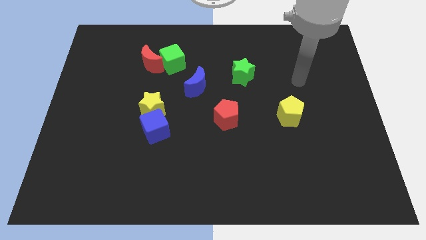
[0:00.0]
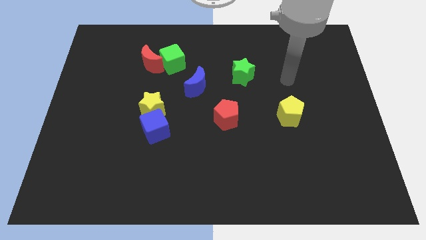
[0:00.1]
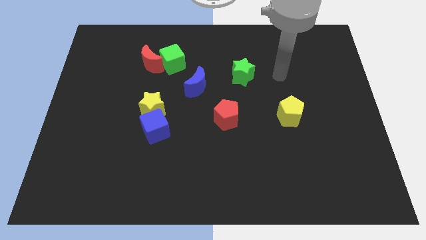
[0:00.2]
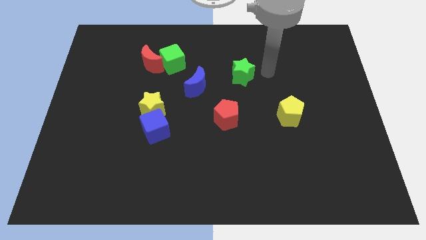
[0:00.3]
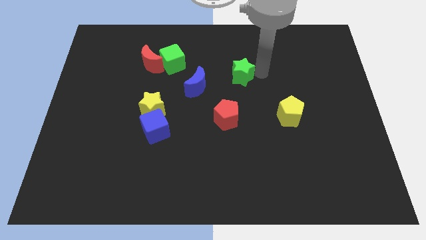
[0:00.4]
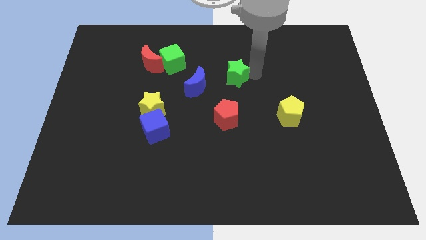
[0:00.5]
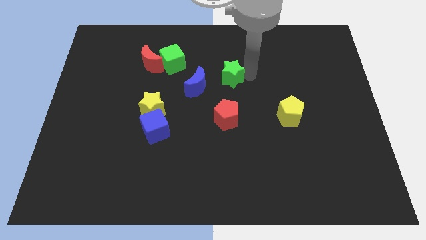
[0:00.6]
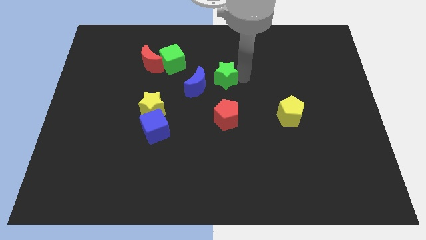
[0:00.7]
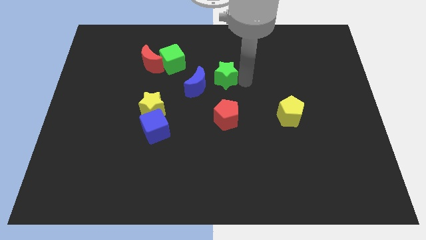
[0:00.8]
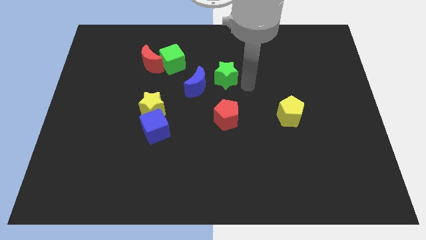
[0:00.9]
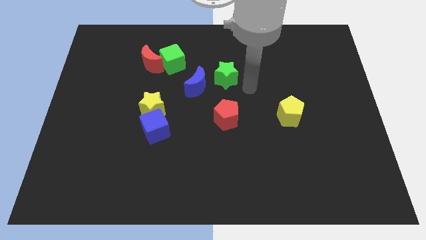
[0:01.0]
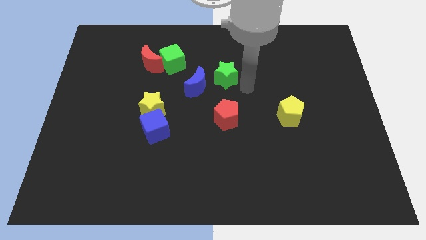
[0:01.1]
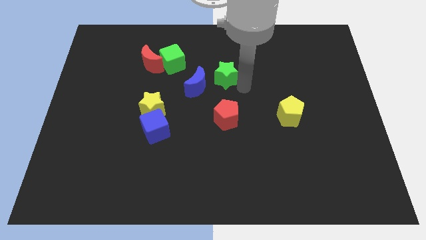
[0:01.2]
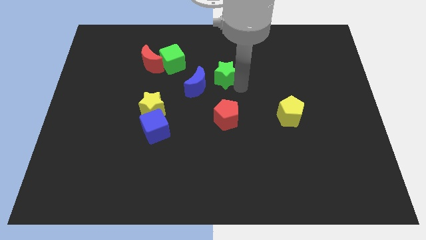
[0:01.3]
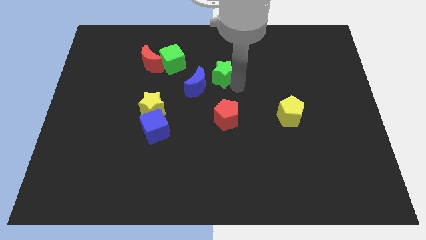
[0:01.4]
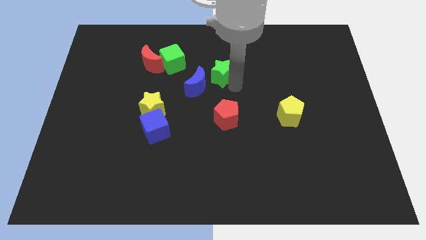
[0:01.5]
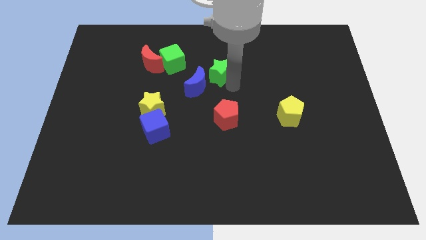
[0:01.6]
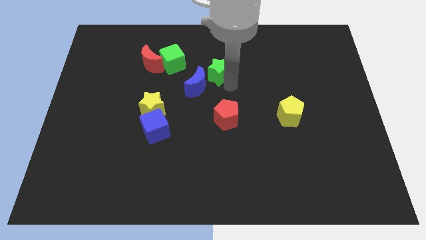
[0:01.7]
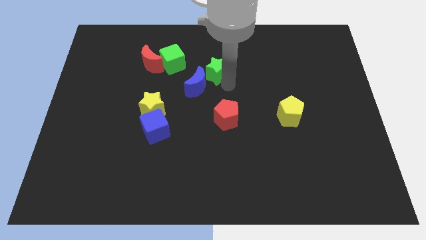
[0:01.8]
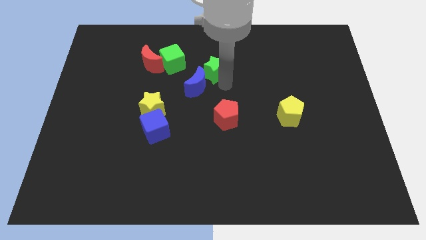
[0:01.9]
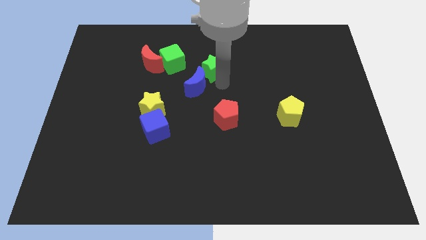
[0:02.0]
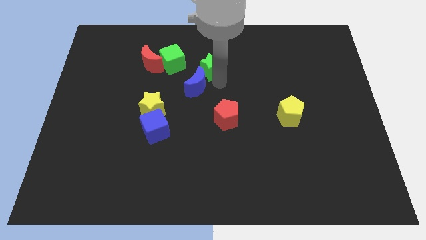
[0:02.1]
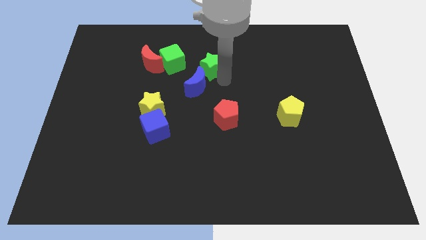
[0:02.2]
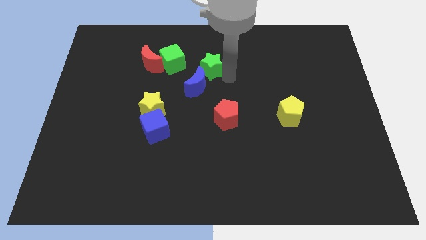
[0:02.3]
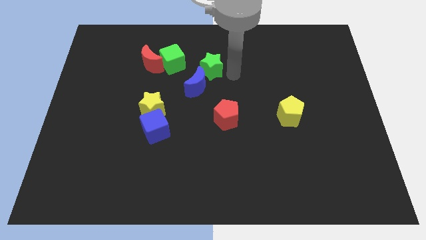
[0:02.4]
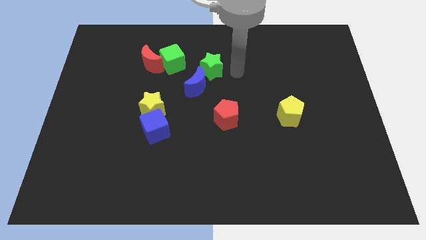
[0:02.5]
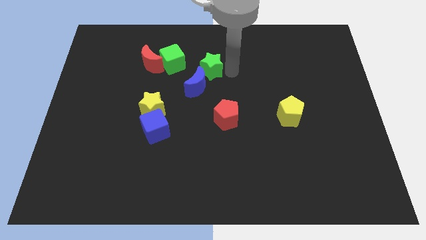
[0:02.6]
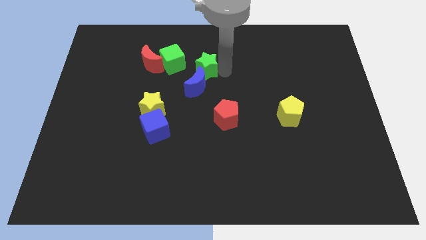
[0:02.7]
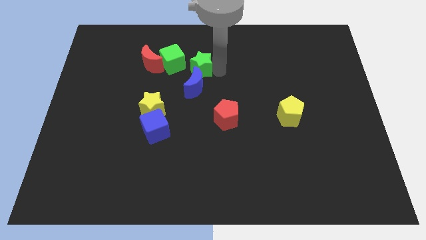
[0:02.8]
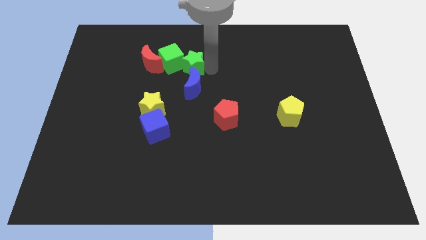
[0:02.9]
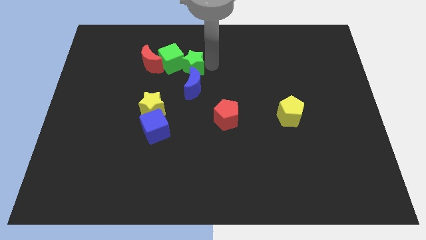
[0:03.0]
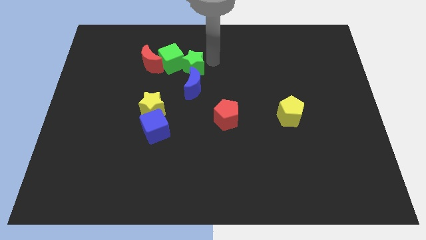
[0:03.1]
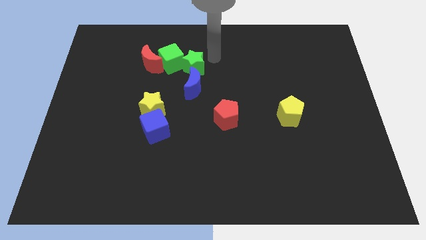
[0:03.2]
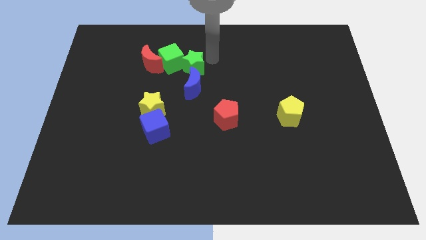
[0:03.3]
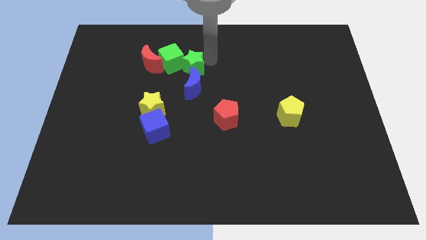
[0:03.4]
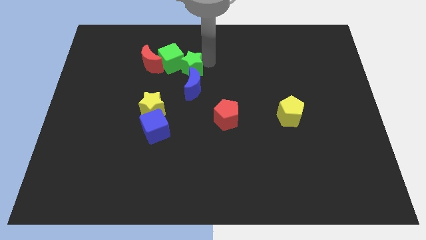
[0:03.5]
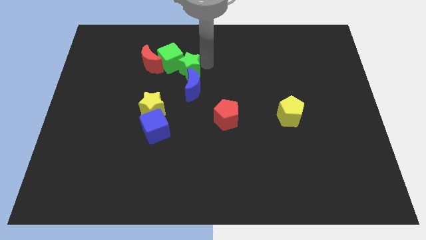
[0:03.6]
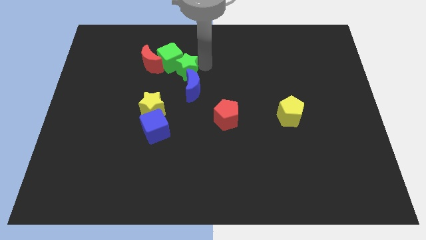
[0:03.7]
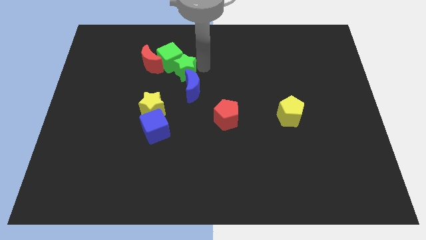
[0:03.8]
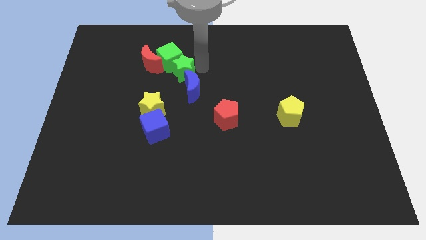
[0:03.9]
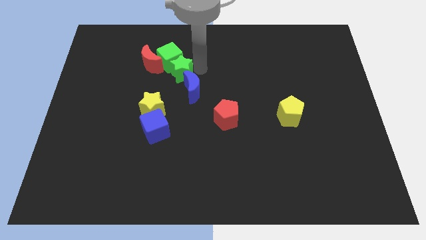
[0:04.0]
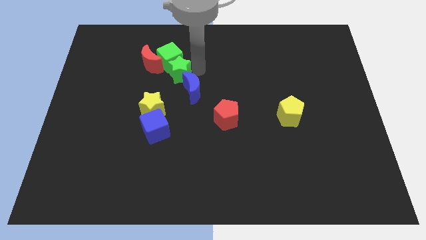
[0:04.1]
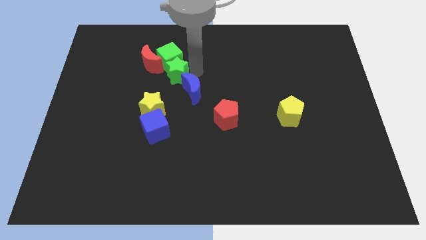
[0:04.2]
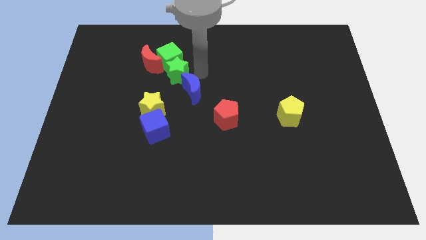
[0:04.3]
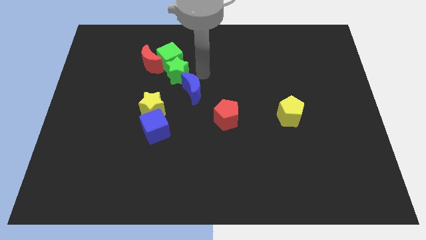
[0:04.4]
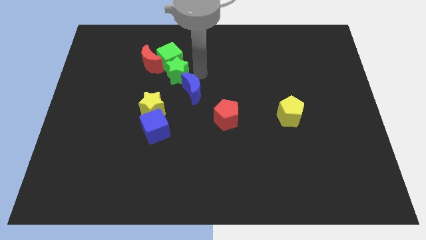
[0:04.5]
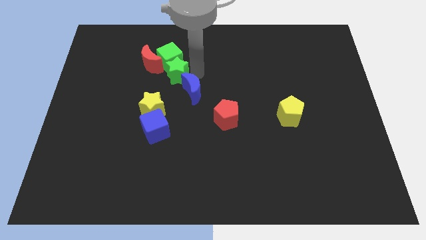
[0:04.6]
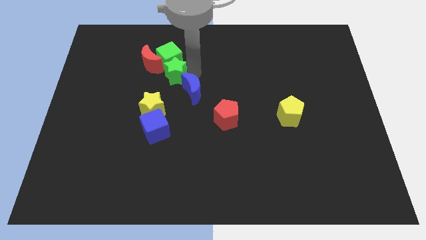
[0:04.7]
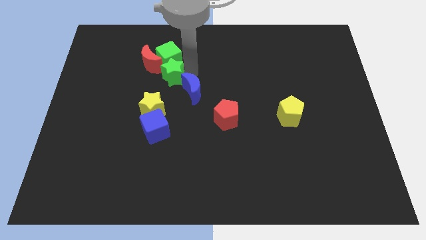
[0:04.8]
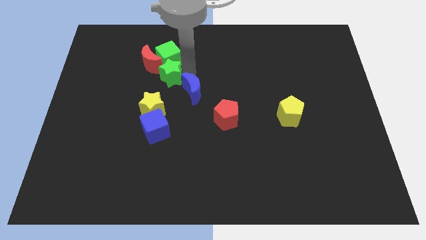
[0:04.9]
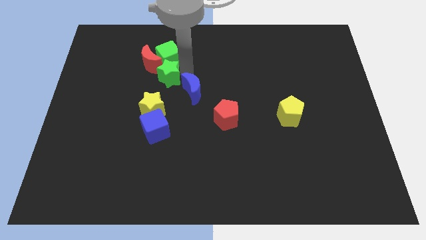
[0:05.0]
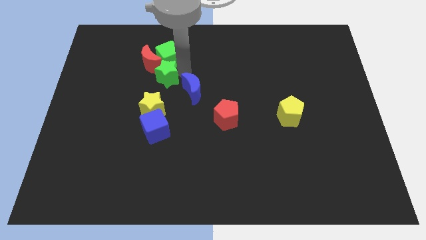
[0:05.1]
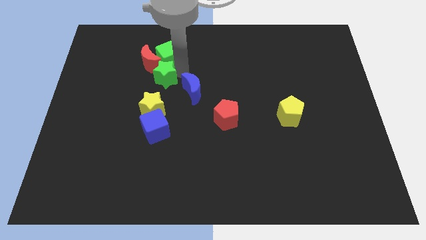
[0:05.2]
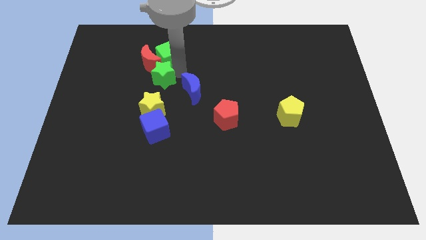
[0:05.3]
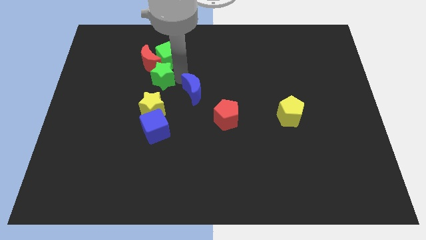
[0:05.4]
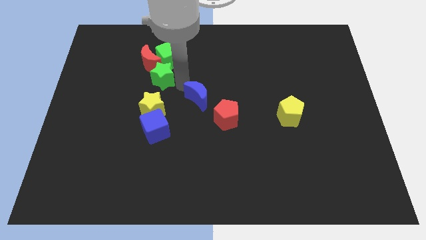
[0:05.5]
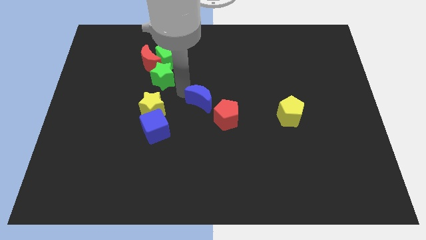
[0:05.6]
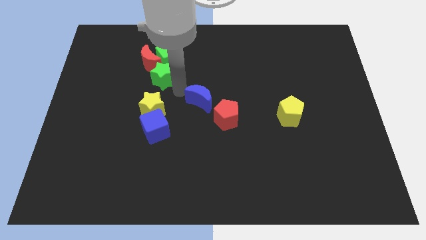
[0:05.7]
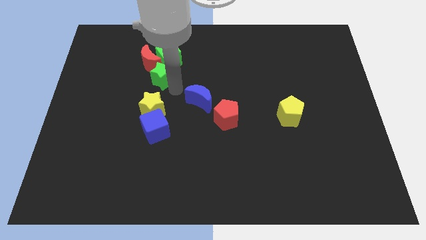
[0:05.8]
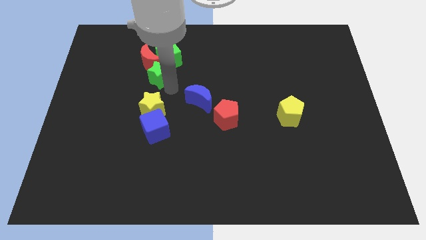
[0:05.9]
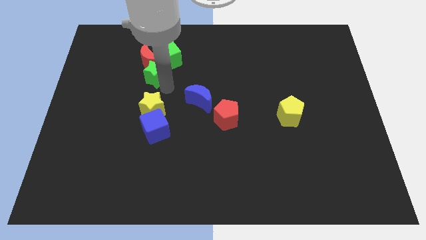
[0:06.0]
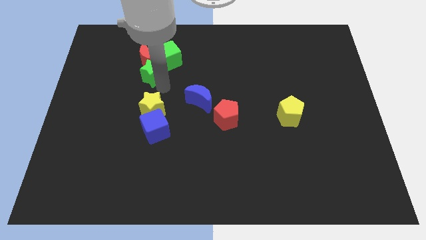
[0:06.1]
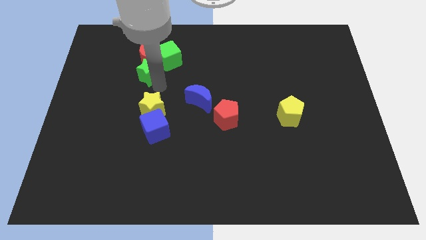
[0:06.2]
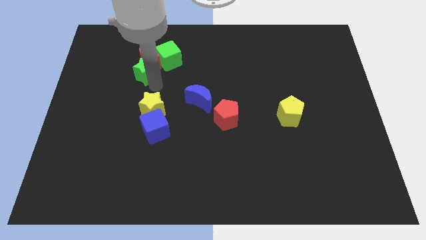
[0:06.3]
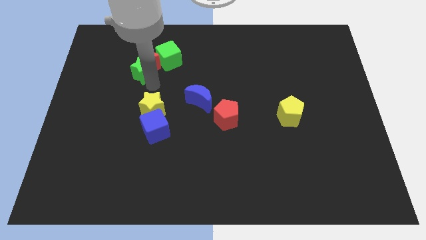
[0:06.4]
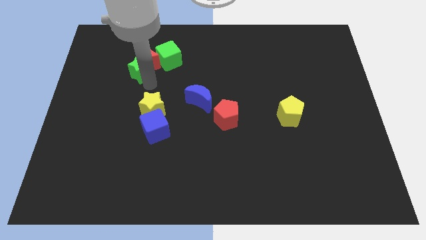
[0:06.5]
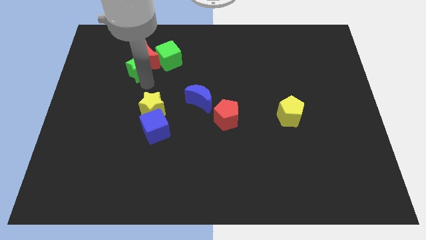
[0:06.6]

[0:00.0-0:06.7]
slide the green star to the left of the green cube

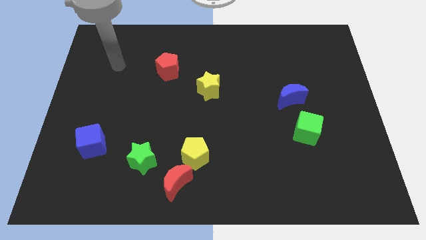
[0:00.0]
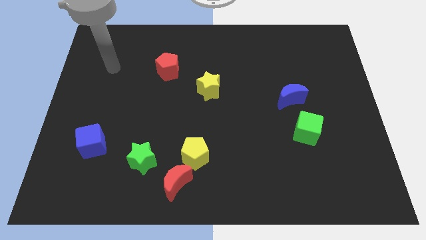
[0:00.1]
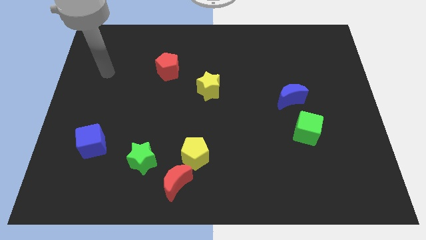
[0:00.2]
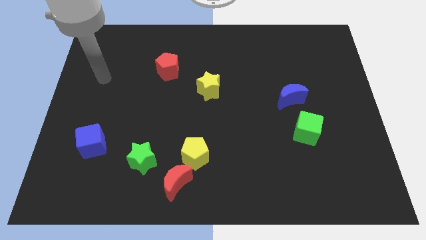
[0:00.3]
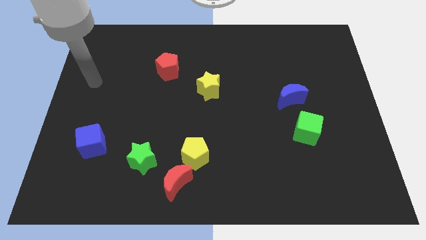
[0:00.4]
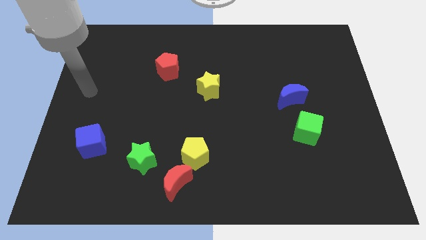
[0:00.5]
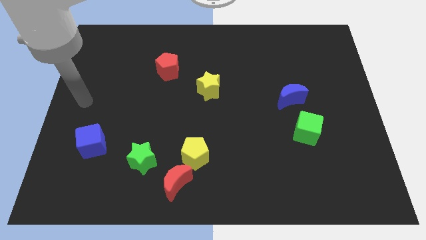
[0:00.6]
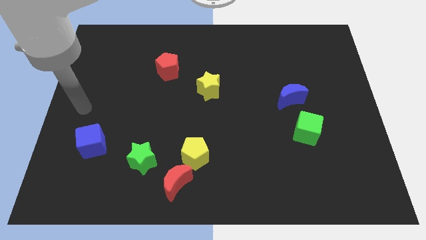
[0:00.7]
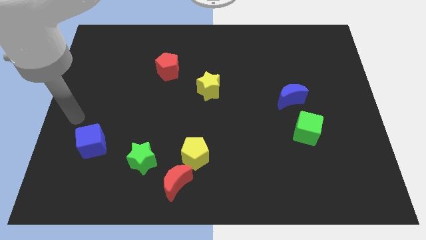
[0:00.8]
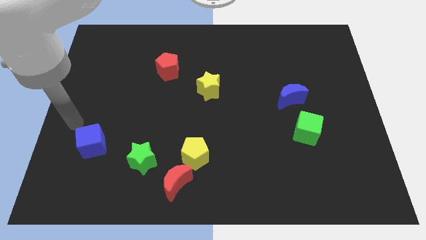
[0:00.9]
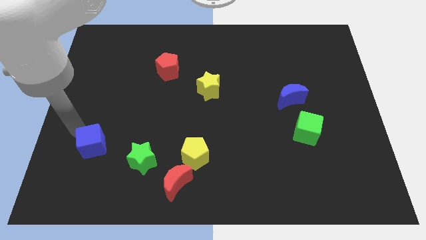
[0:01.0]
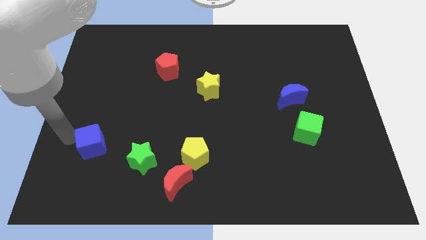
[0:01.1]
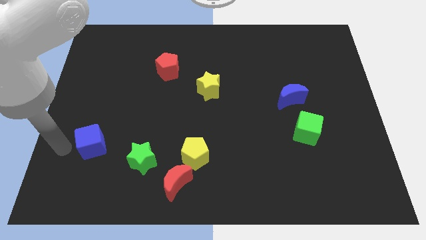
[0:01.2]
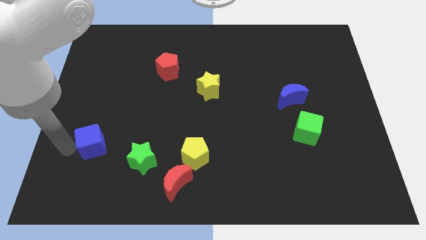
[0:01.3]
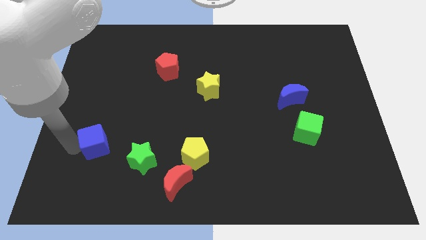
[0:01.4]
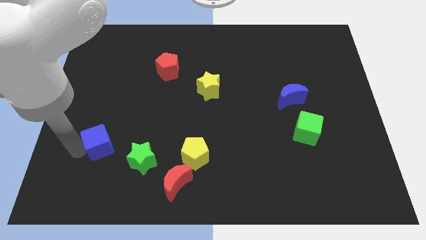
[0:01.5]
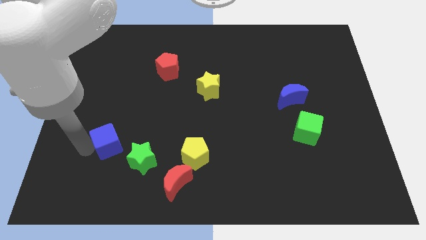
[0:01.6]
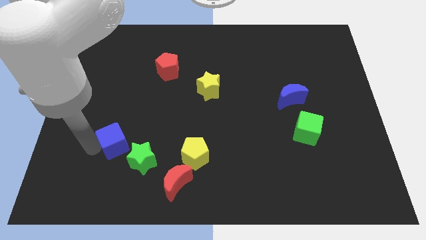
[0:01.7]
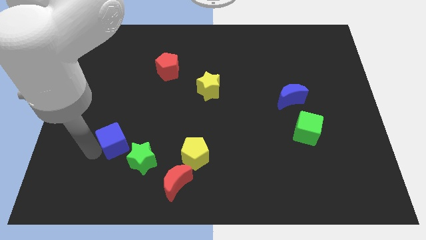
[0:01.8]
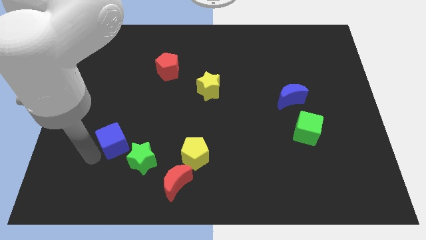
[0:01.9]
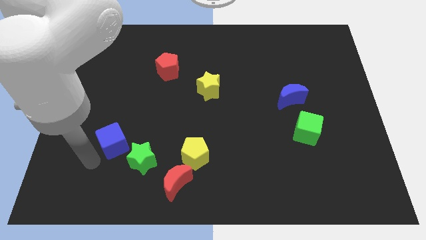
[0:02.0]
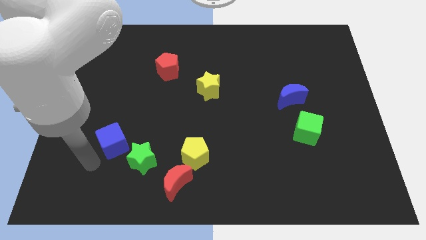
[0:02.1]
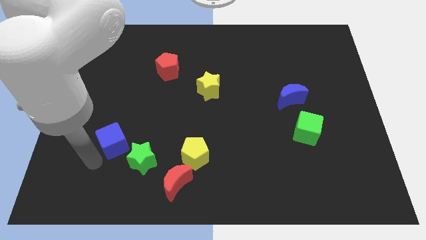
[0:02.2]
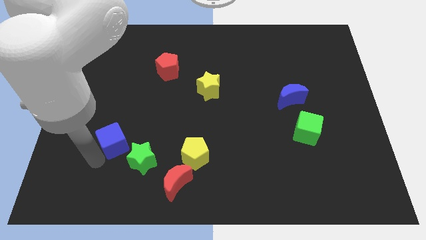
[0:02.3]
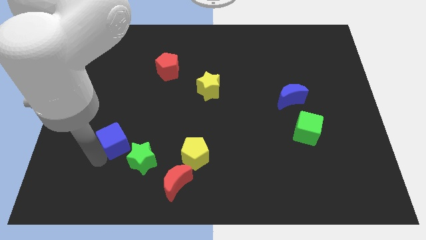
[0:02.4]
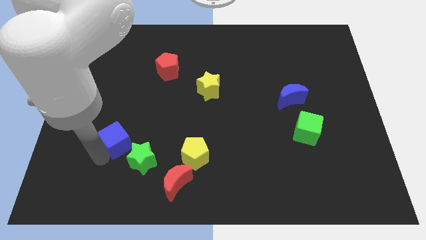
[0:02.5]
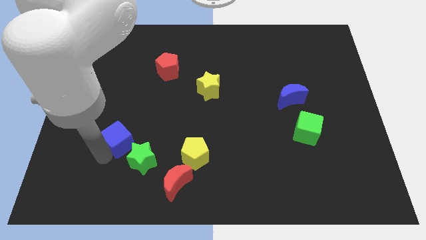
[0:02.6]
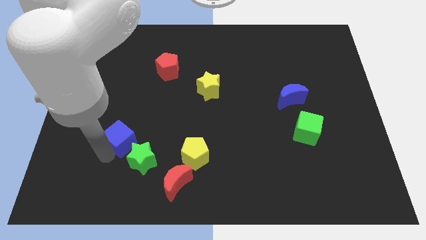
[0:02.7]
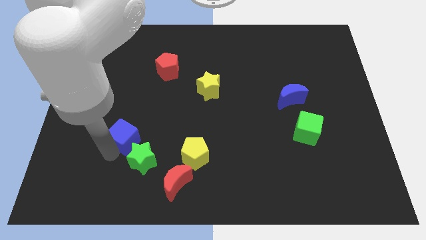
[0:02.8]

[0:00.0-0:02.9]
slide the blue cube to the top side of the green star
